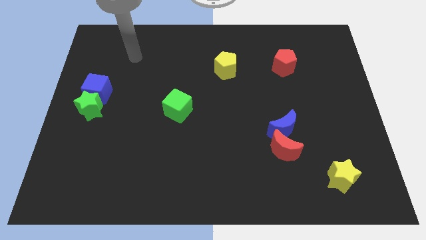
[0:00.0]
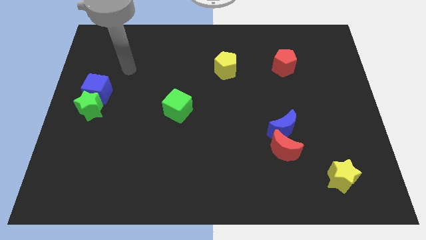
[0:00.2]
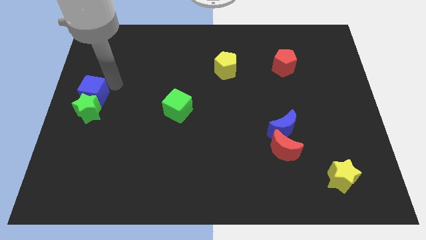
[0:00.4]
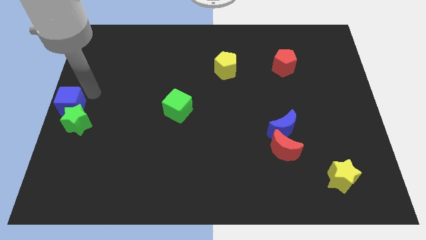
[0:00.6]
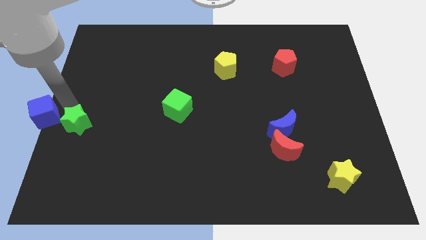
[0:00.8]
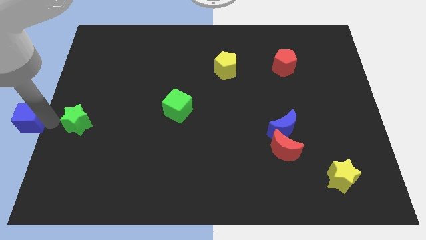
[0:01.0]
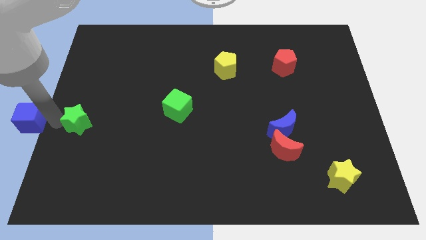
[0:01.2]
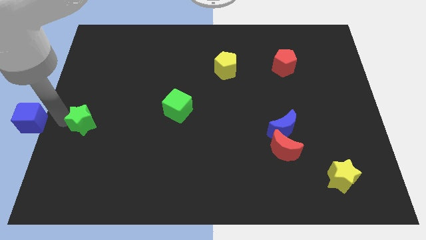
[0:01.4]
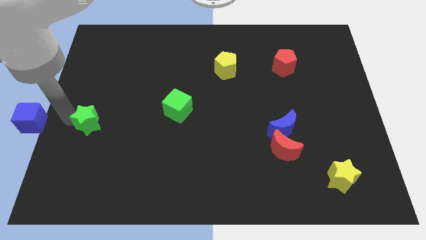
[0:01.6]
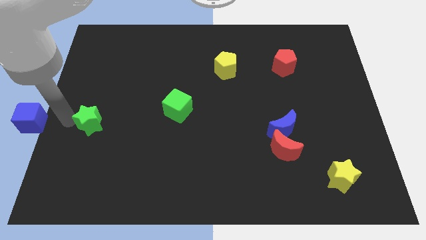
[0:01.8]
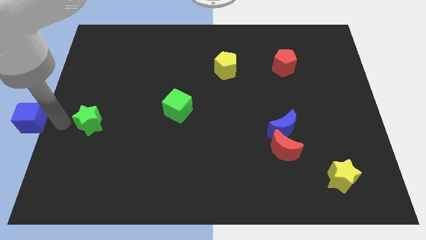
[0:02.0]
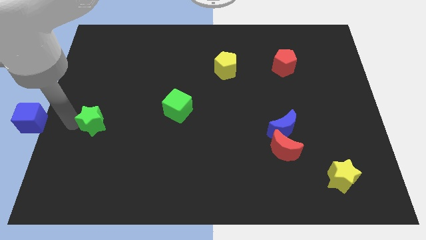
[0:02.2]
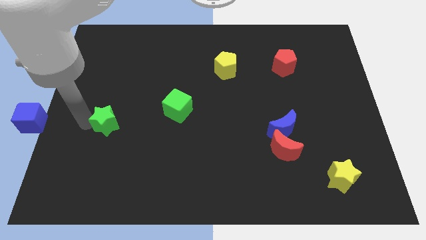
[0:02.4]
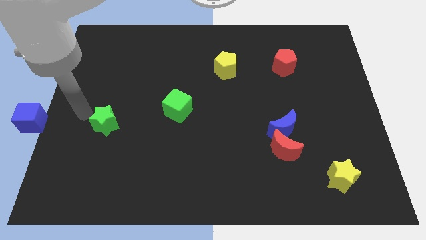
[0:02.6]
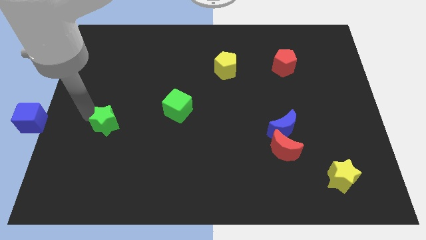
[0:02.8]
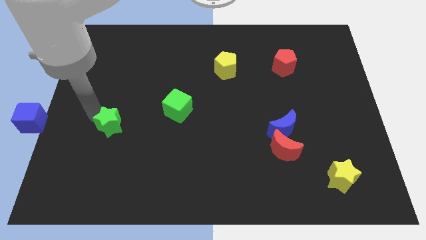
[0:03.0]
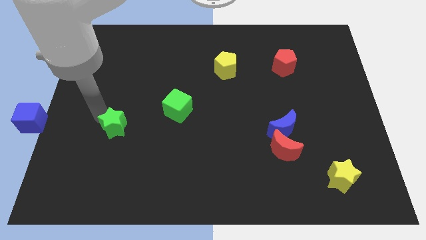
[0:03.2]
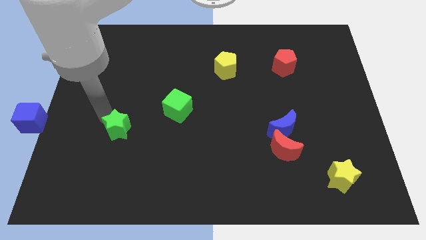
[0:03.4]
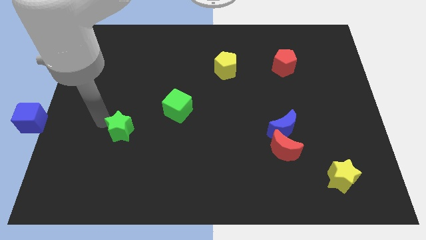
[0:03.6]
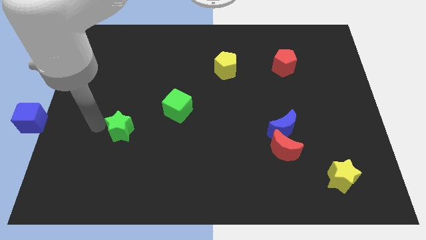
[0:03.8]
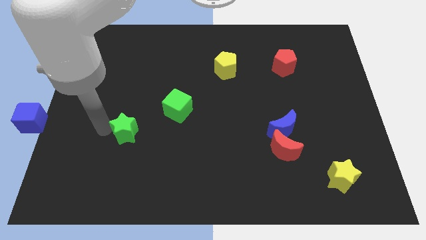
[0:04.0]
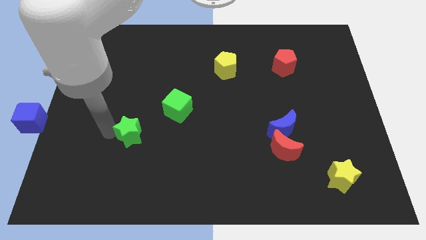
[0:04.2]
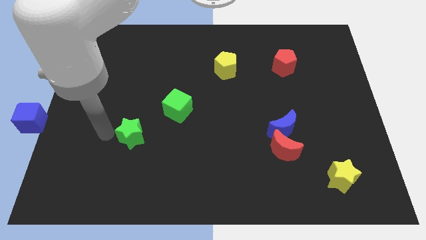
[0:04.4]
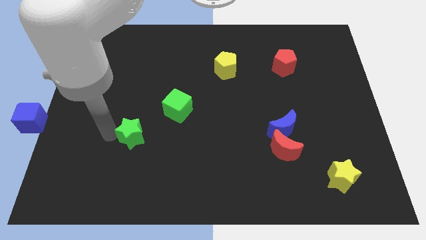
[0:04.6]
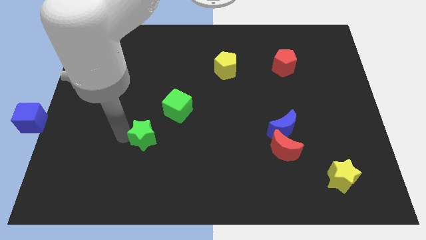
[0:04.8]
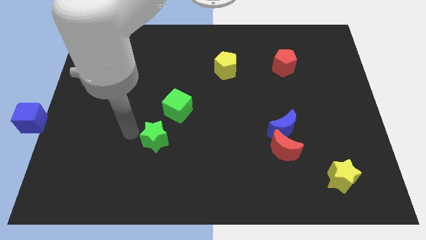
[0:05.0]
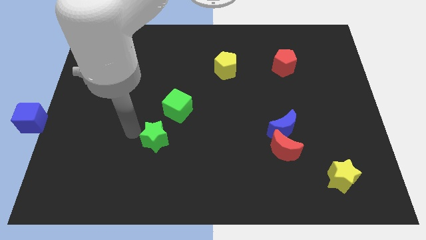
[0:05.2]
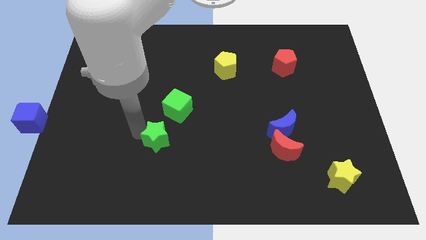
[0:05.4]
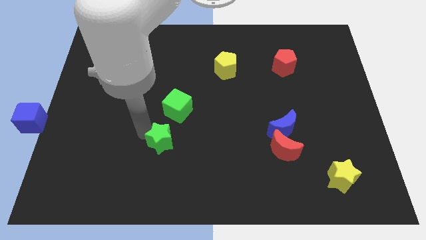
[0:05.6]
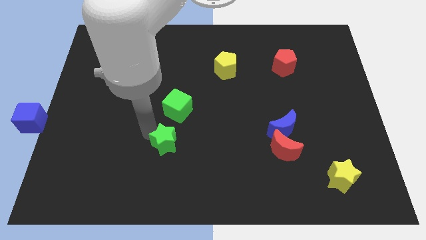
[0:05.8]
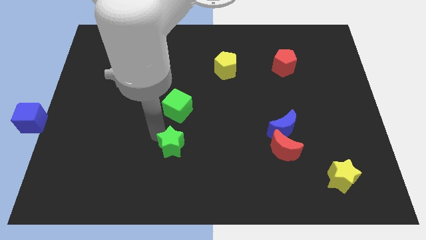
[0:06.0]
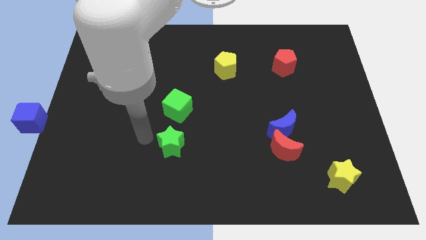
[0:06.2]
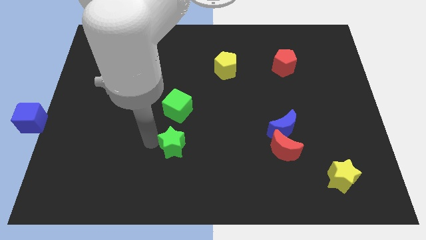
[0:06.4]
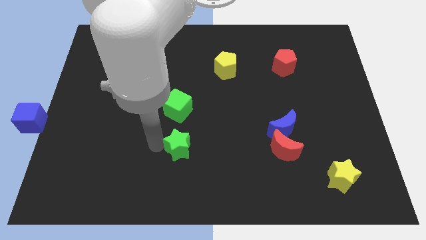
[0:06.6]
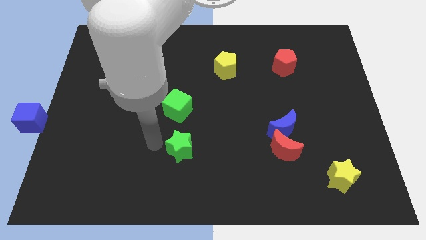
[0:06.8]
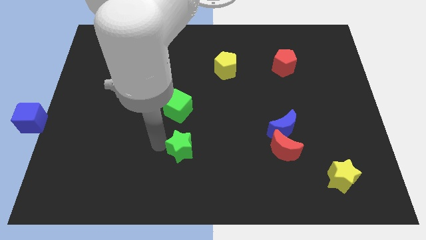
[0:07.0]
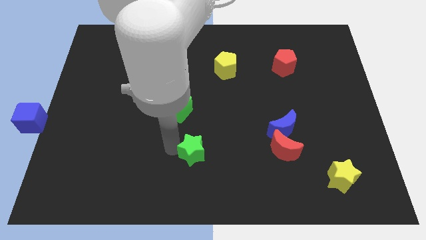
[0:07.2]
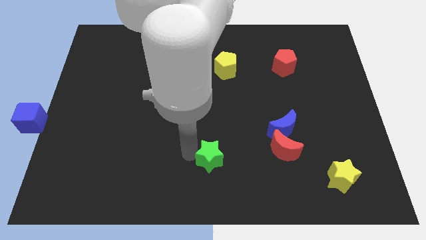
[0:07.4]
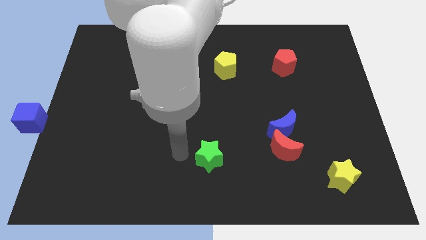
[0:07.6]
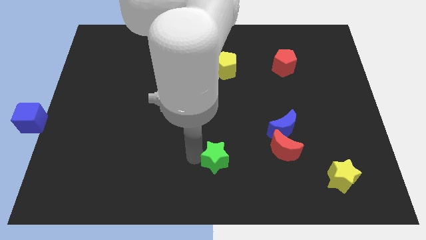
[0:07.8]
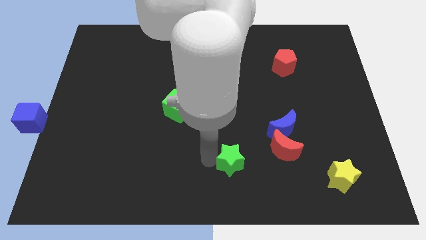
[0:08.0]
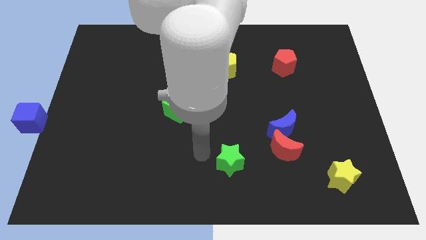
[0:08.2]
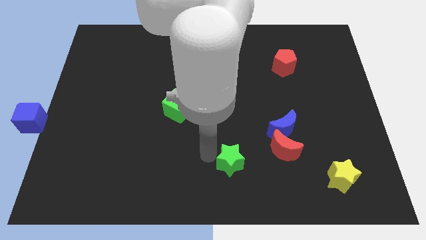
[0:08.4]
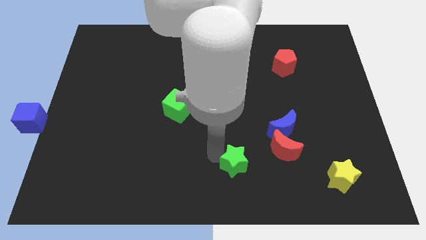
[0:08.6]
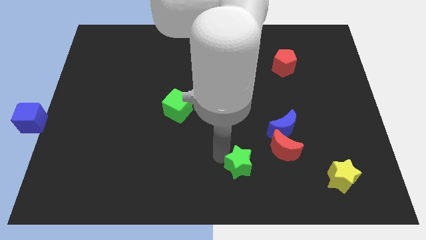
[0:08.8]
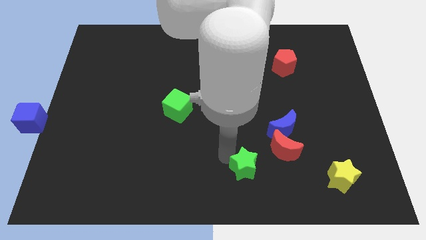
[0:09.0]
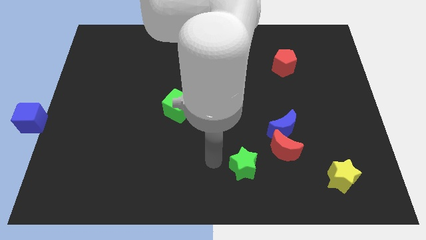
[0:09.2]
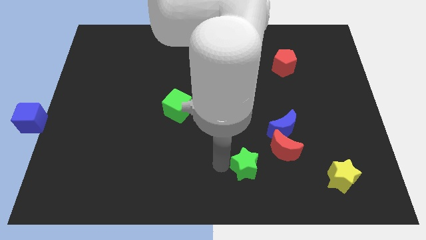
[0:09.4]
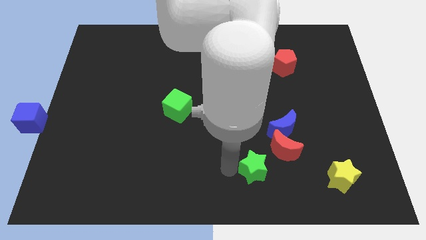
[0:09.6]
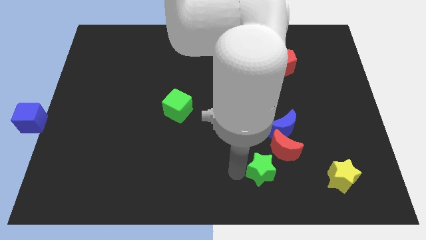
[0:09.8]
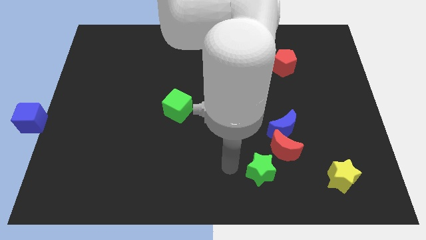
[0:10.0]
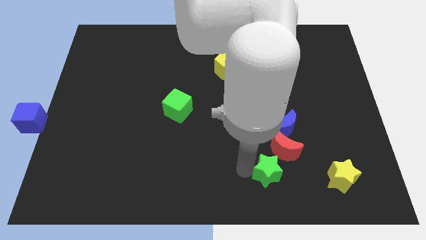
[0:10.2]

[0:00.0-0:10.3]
slide the green star just left of the yellow star

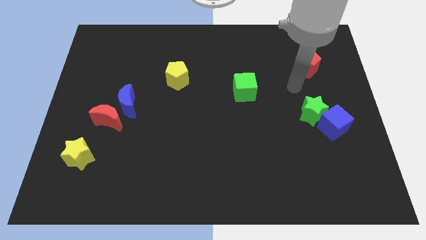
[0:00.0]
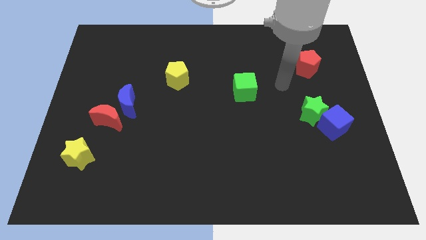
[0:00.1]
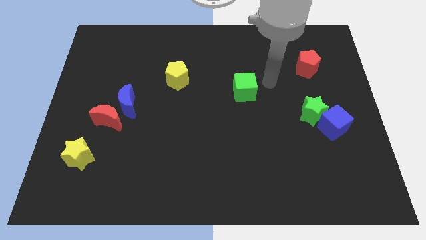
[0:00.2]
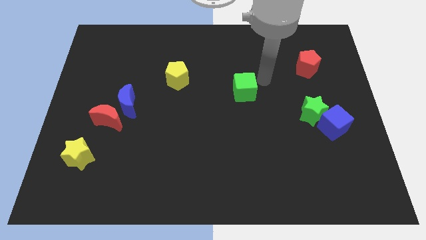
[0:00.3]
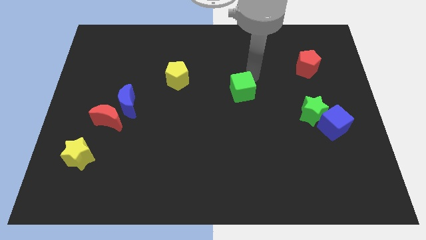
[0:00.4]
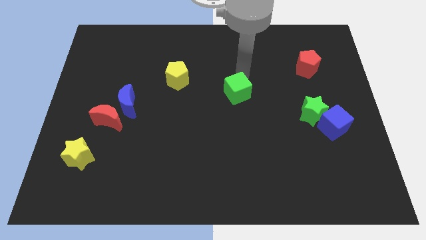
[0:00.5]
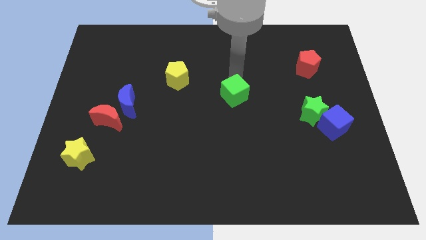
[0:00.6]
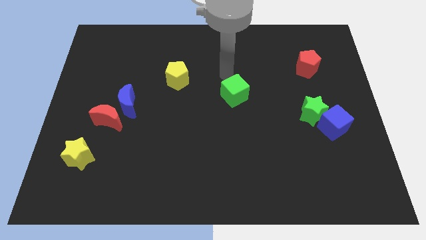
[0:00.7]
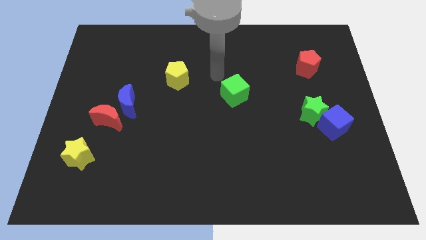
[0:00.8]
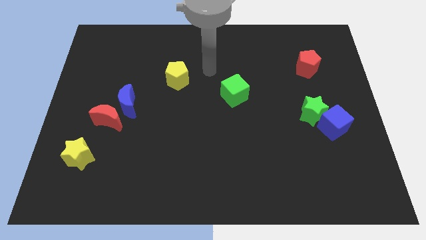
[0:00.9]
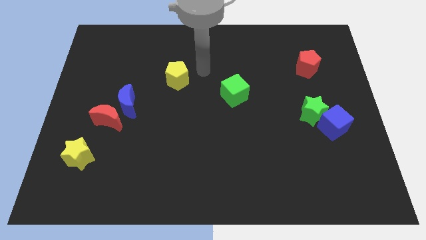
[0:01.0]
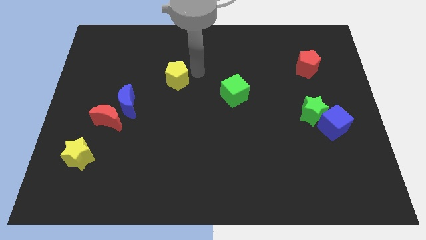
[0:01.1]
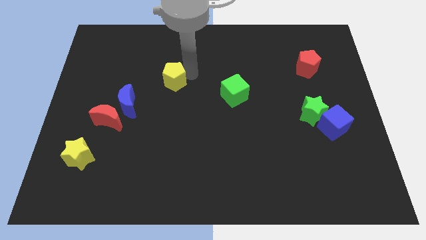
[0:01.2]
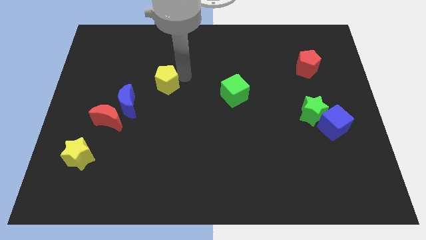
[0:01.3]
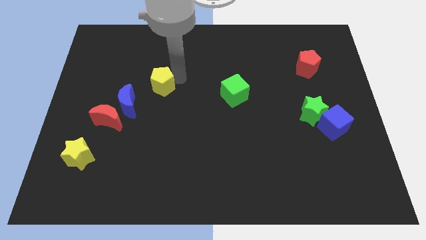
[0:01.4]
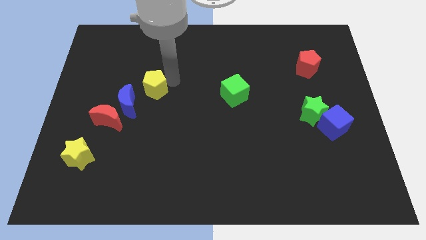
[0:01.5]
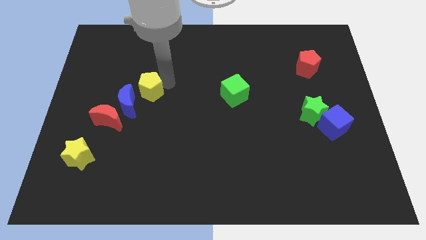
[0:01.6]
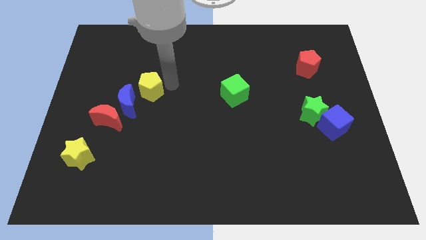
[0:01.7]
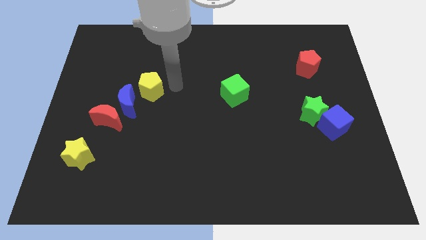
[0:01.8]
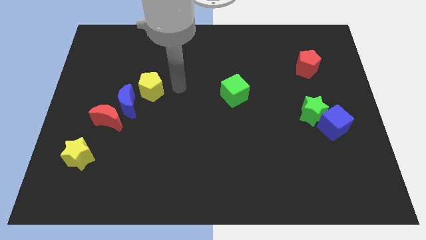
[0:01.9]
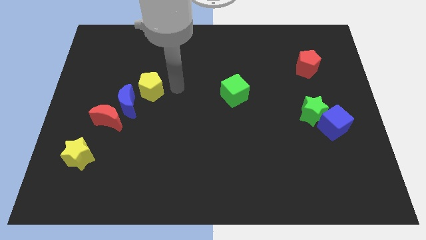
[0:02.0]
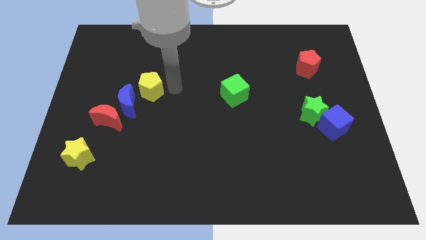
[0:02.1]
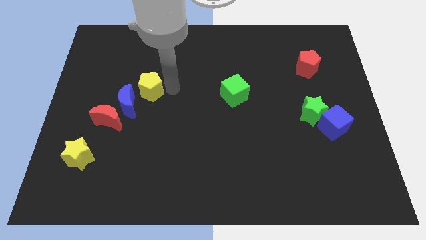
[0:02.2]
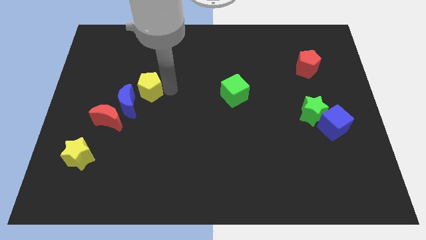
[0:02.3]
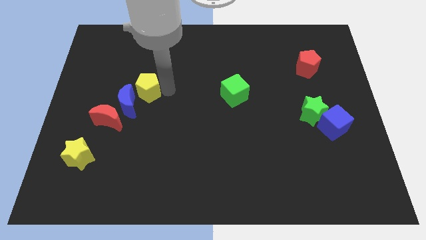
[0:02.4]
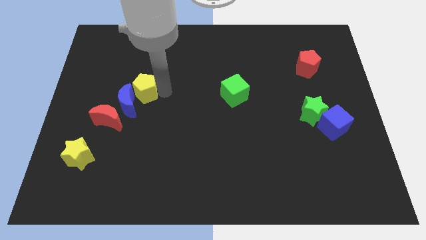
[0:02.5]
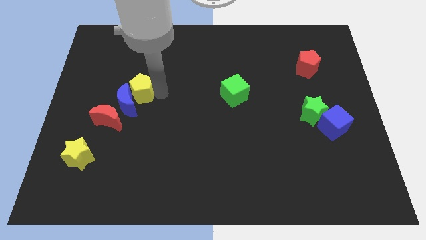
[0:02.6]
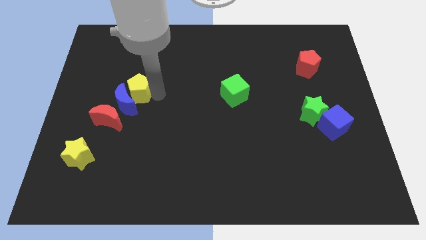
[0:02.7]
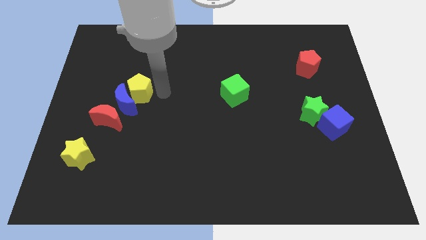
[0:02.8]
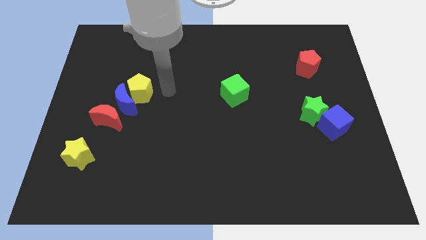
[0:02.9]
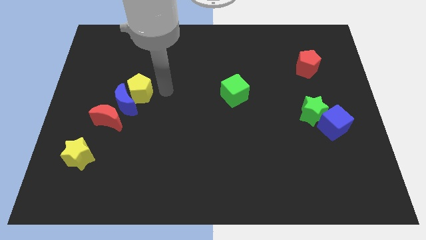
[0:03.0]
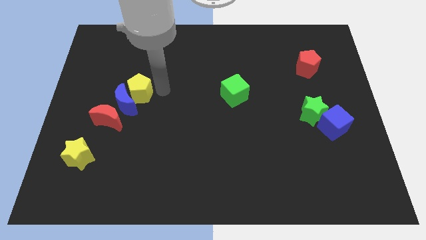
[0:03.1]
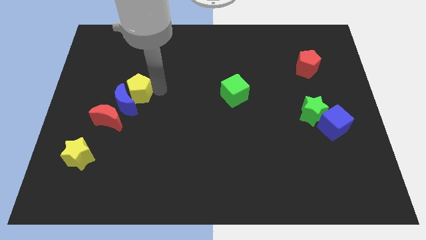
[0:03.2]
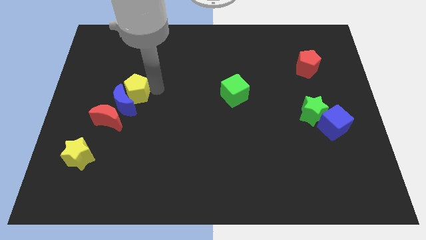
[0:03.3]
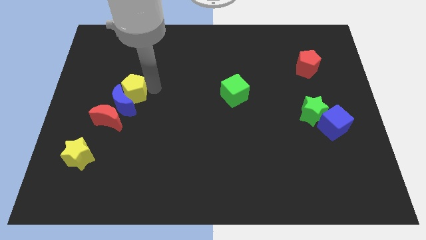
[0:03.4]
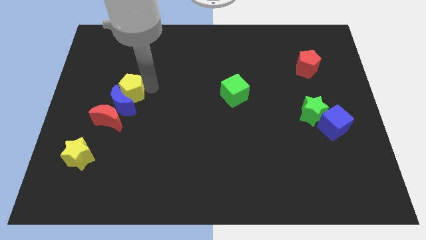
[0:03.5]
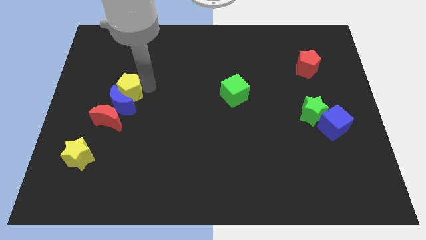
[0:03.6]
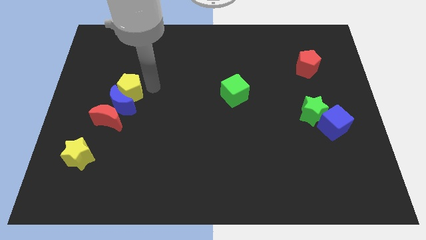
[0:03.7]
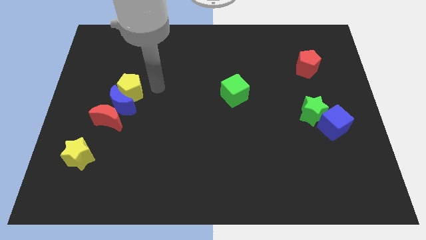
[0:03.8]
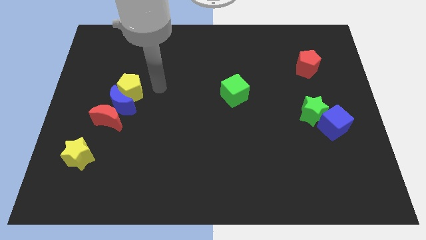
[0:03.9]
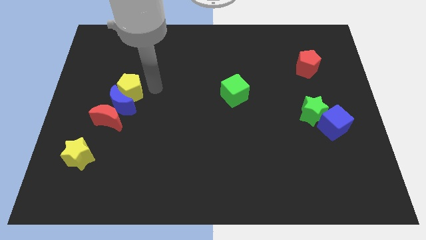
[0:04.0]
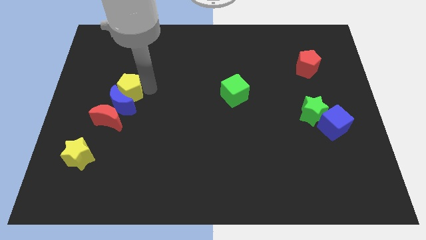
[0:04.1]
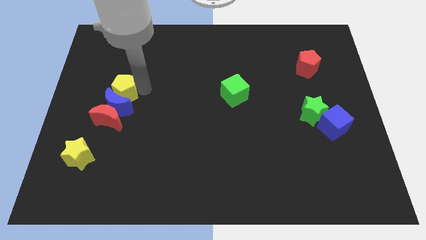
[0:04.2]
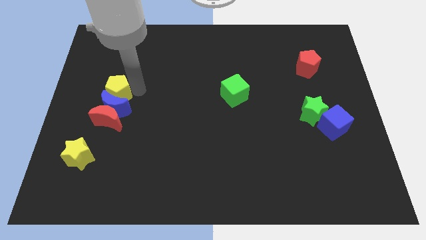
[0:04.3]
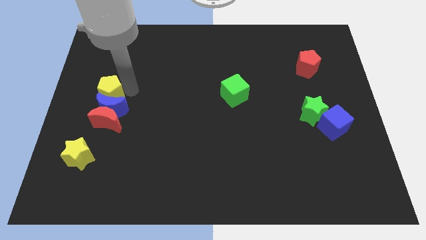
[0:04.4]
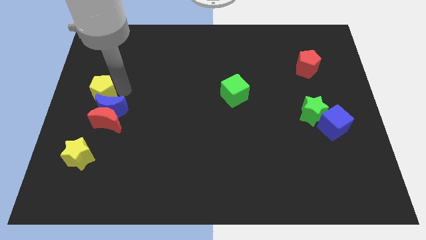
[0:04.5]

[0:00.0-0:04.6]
push the yellow pentagon diagonally up and to the left of the red moon
